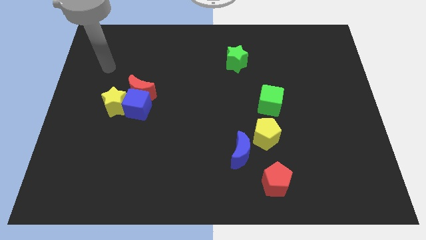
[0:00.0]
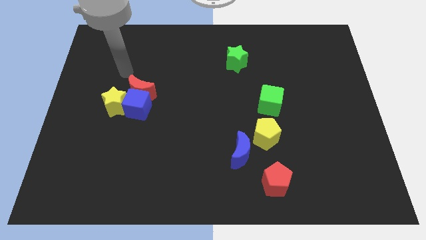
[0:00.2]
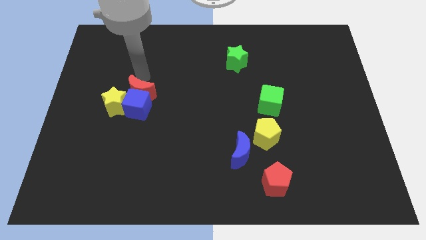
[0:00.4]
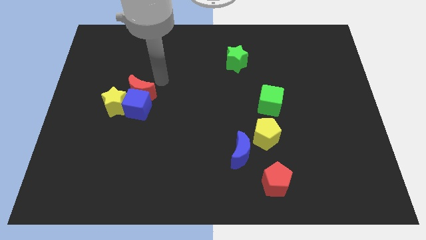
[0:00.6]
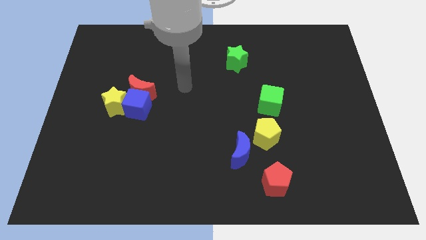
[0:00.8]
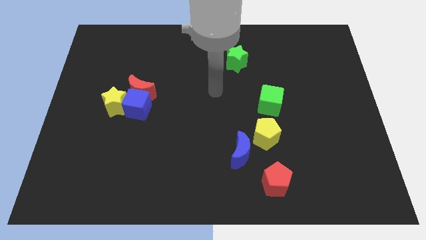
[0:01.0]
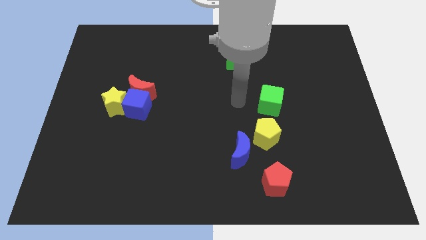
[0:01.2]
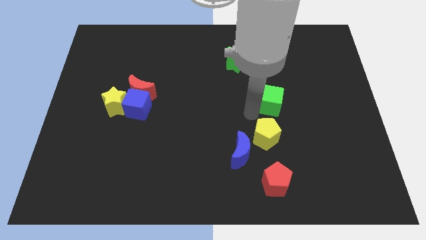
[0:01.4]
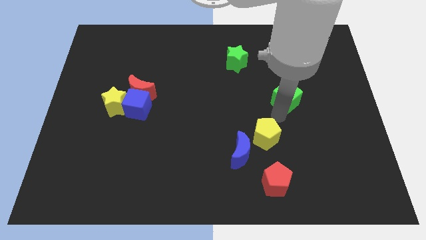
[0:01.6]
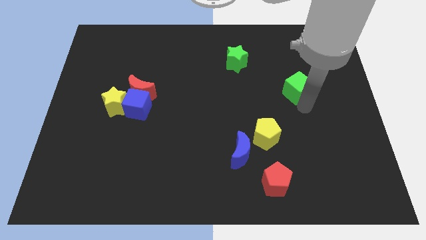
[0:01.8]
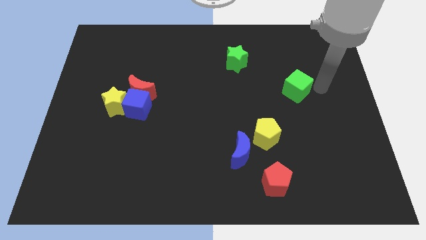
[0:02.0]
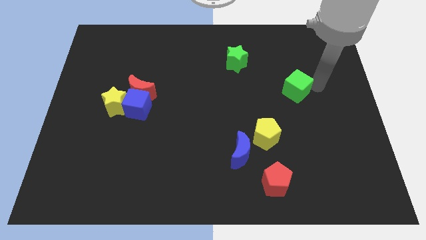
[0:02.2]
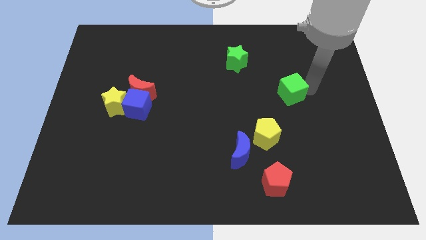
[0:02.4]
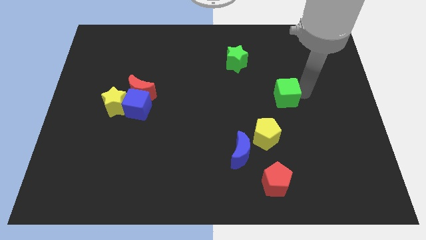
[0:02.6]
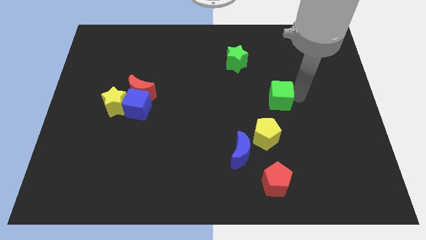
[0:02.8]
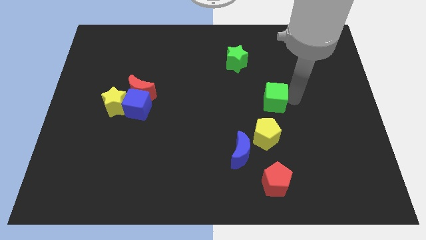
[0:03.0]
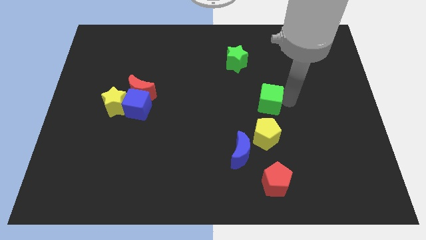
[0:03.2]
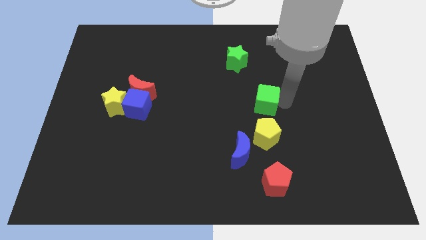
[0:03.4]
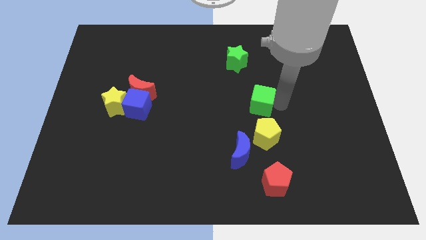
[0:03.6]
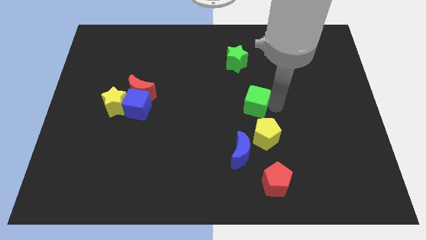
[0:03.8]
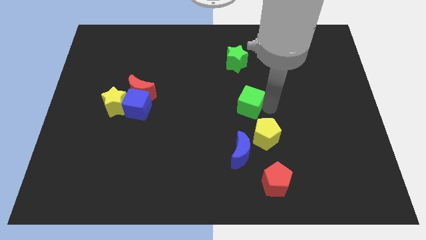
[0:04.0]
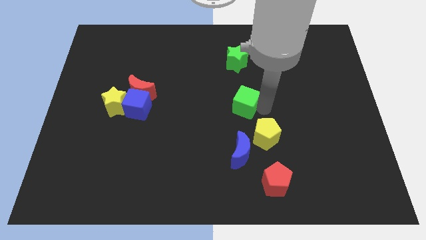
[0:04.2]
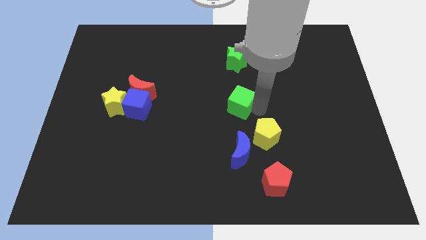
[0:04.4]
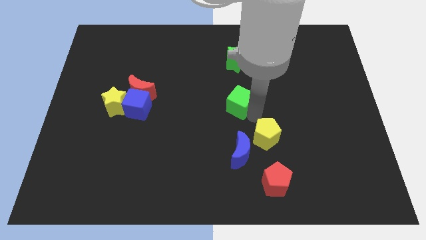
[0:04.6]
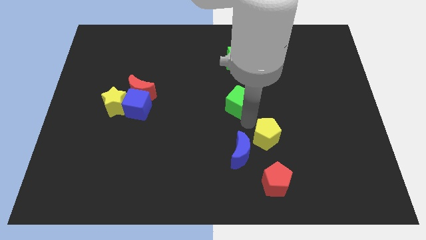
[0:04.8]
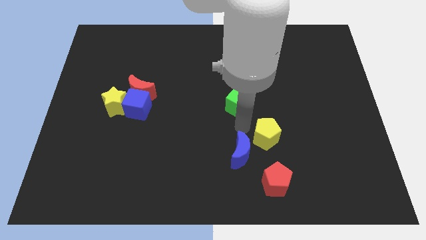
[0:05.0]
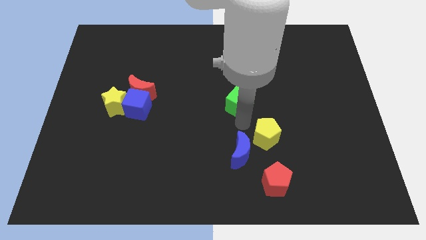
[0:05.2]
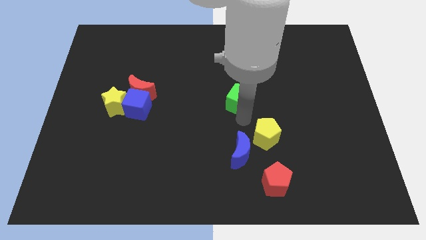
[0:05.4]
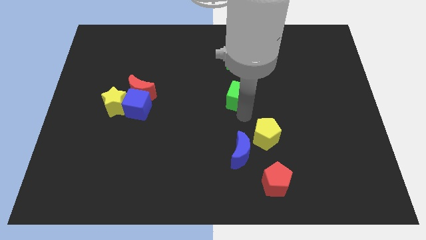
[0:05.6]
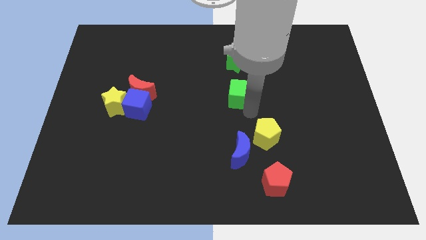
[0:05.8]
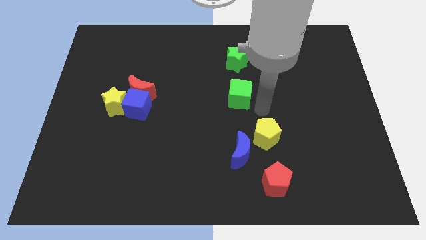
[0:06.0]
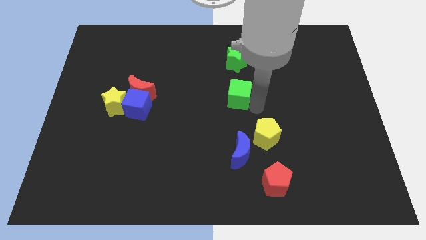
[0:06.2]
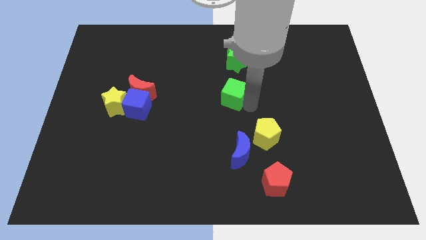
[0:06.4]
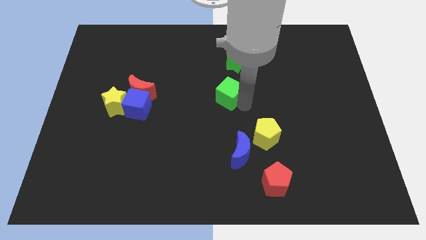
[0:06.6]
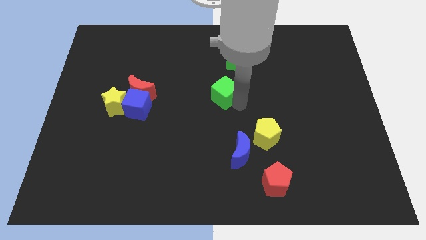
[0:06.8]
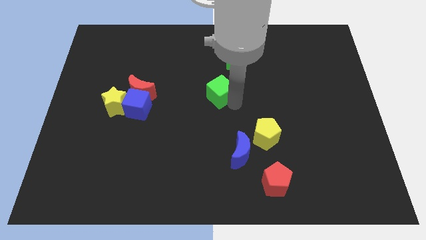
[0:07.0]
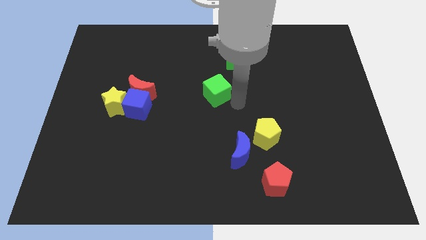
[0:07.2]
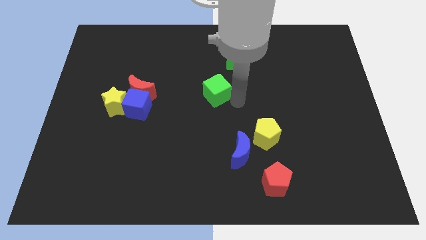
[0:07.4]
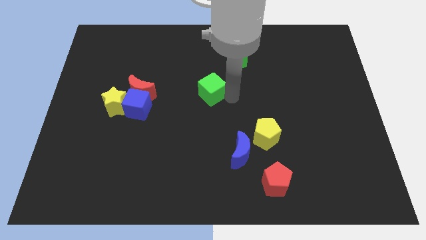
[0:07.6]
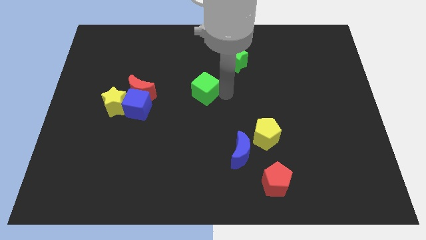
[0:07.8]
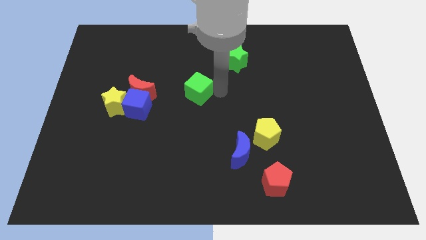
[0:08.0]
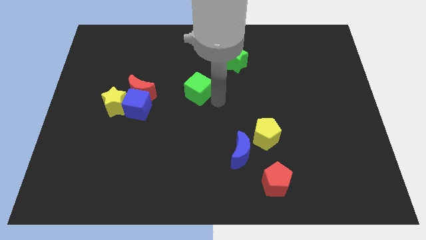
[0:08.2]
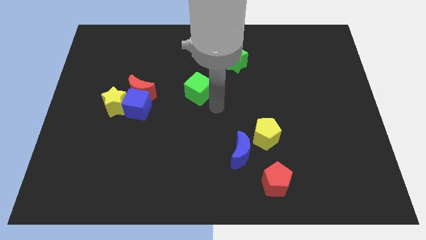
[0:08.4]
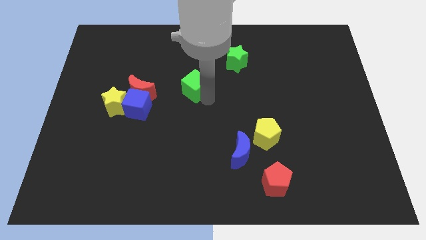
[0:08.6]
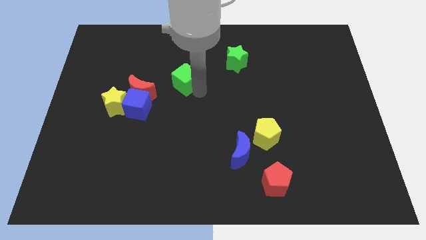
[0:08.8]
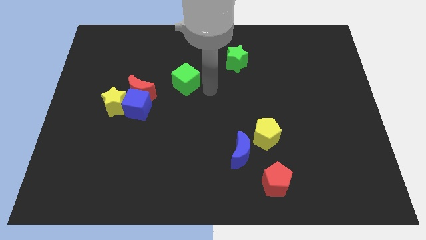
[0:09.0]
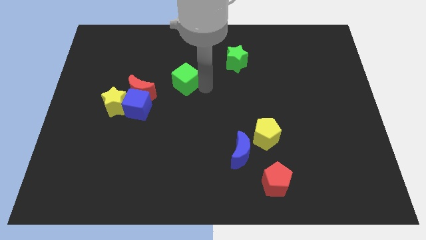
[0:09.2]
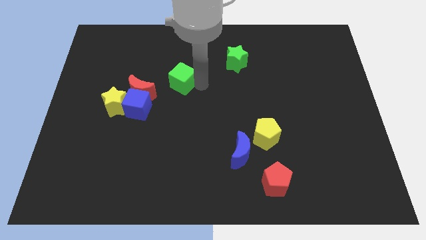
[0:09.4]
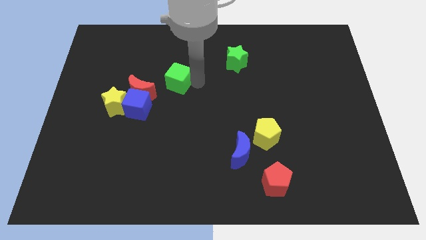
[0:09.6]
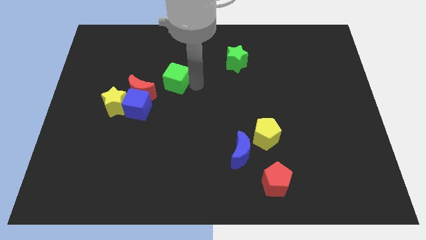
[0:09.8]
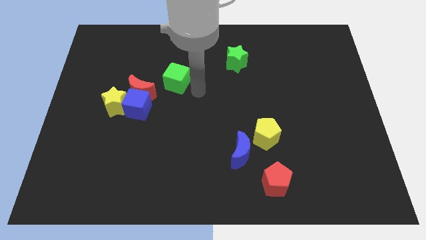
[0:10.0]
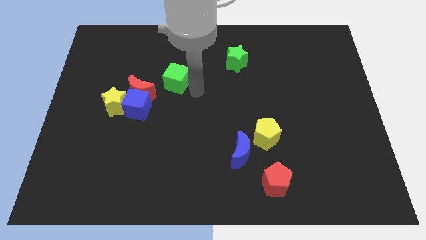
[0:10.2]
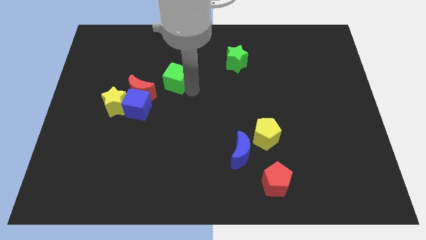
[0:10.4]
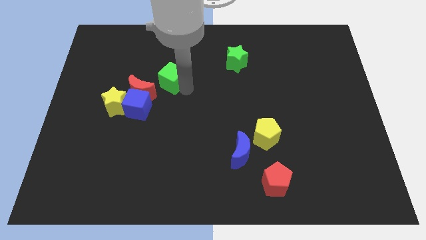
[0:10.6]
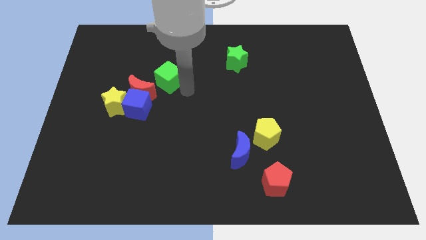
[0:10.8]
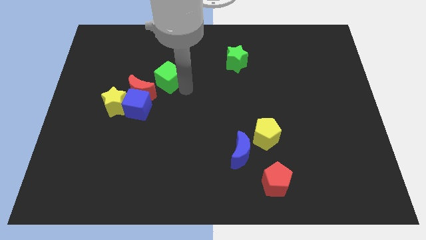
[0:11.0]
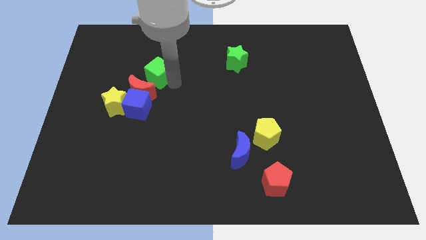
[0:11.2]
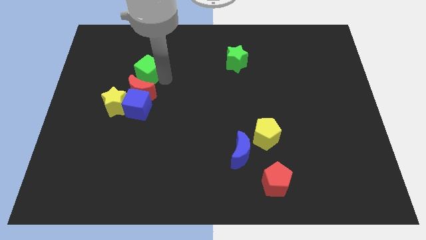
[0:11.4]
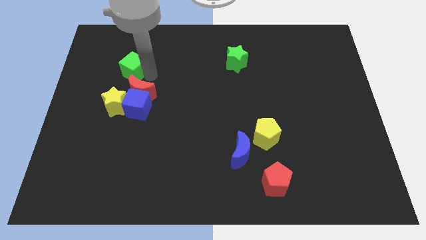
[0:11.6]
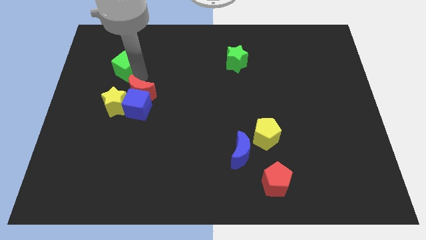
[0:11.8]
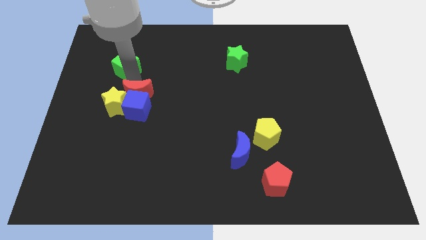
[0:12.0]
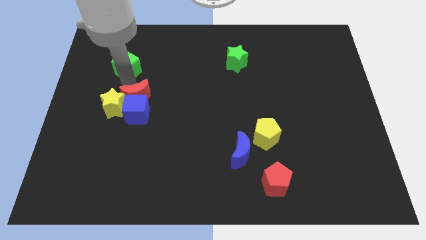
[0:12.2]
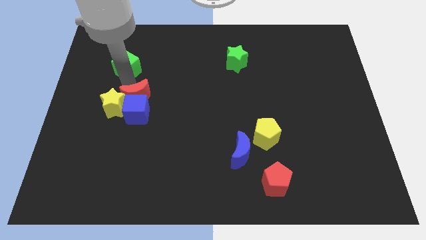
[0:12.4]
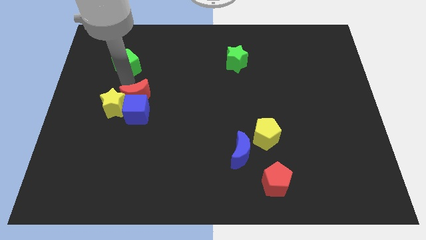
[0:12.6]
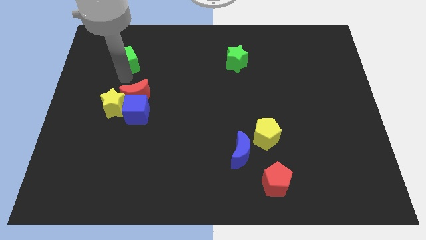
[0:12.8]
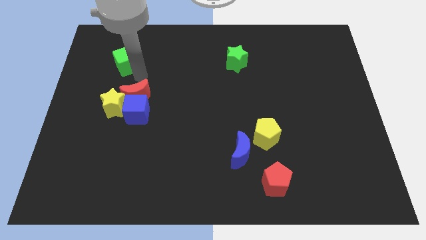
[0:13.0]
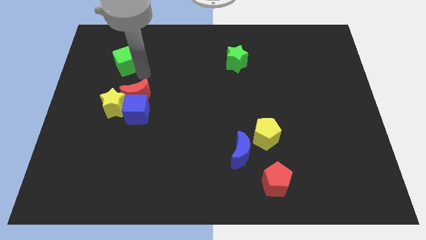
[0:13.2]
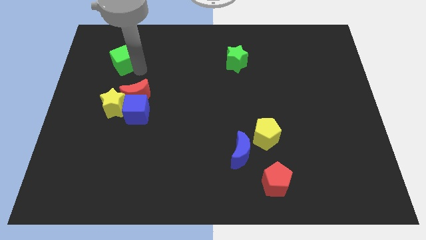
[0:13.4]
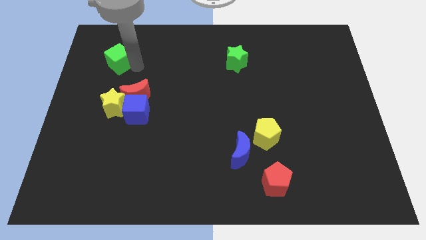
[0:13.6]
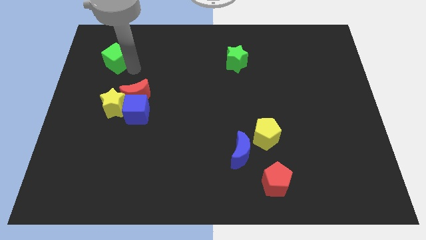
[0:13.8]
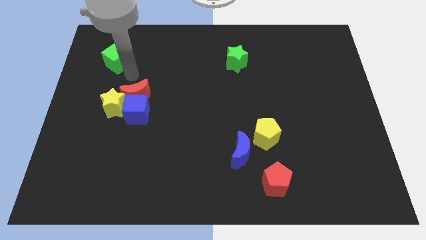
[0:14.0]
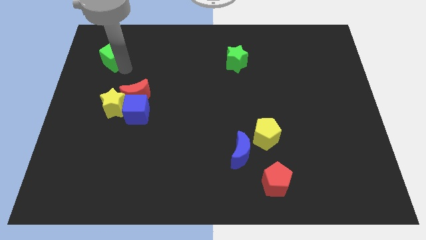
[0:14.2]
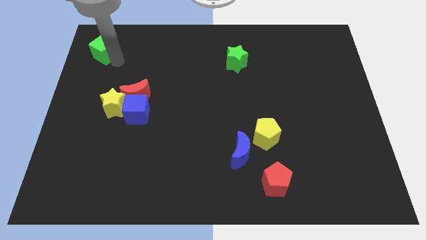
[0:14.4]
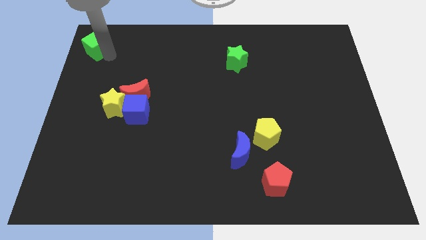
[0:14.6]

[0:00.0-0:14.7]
slide the green cube to the upper left corner
